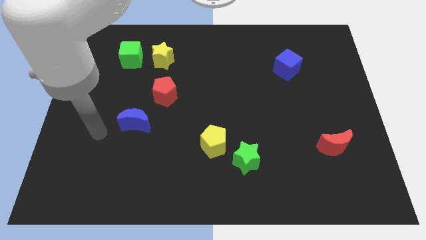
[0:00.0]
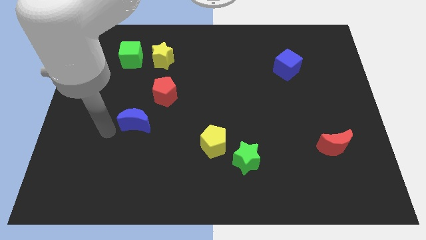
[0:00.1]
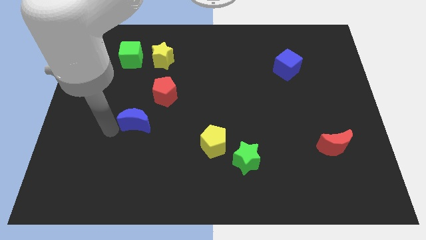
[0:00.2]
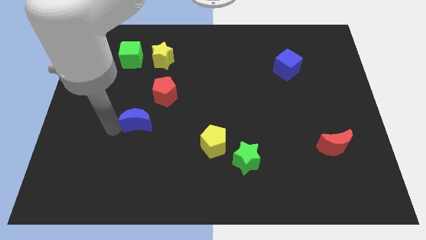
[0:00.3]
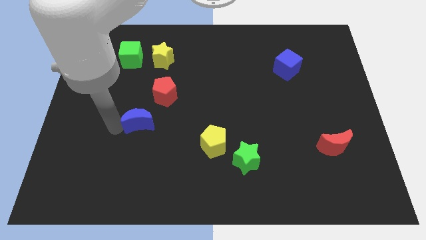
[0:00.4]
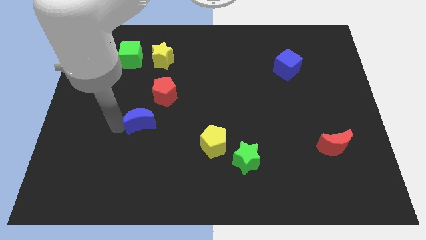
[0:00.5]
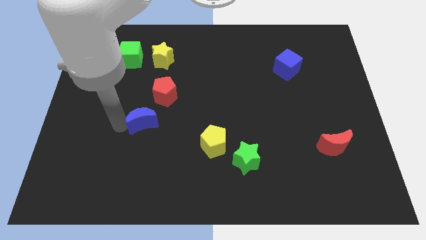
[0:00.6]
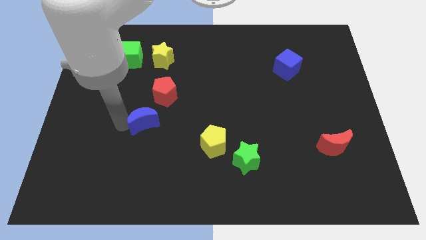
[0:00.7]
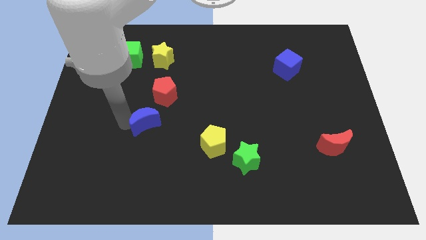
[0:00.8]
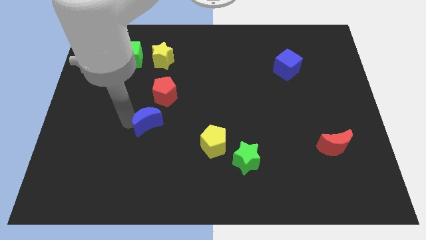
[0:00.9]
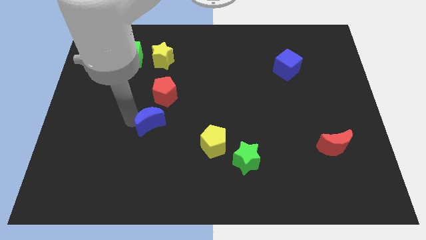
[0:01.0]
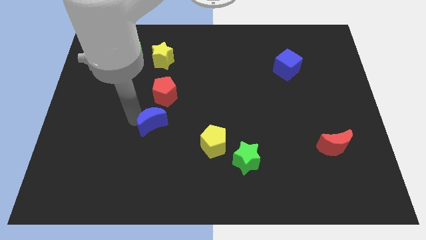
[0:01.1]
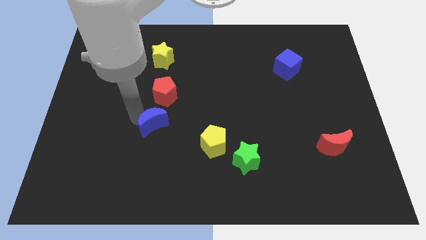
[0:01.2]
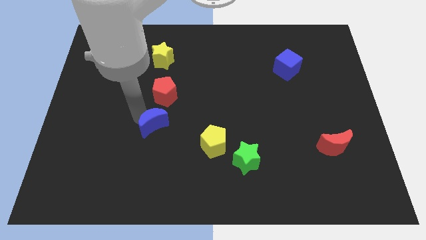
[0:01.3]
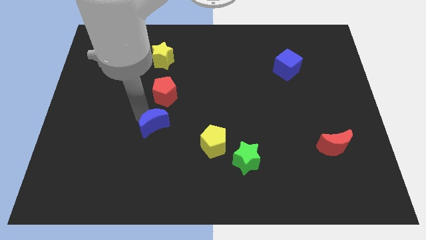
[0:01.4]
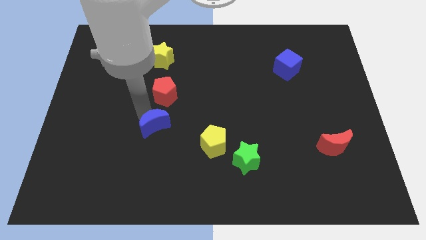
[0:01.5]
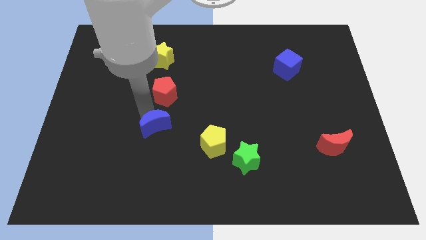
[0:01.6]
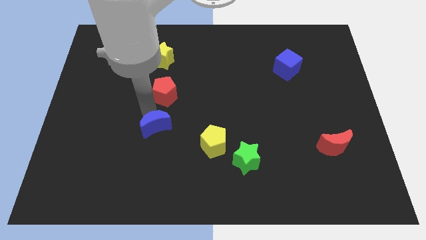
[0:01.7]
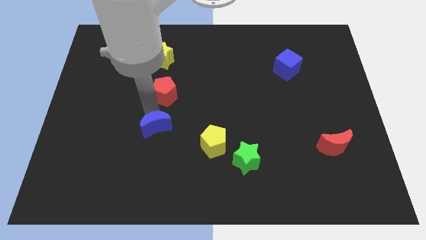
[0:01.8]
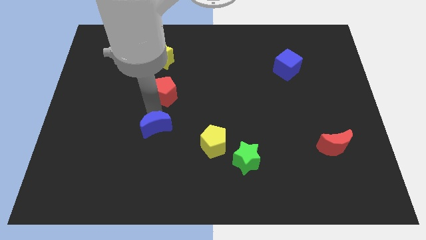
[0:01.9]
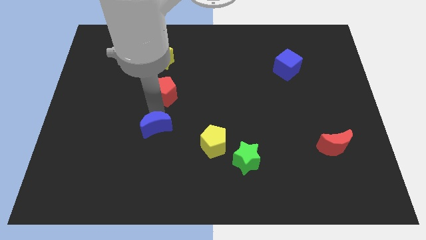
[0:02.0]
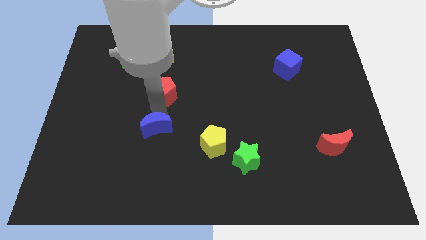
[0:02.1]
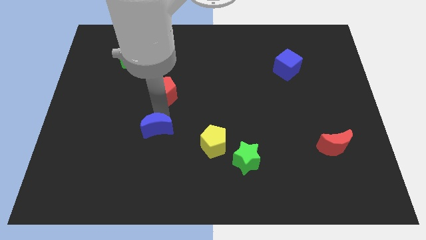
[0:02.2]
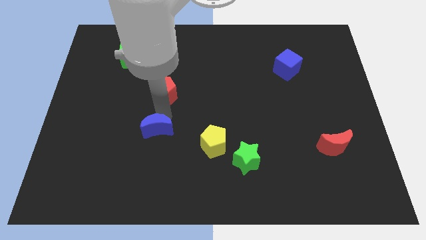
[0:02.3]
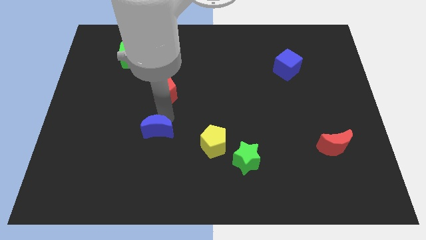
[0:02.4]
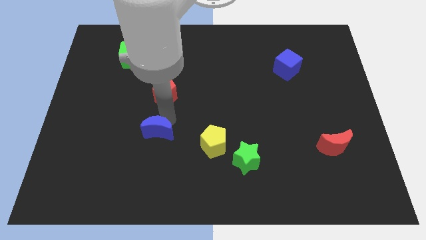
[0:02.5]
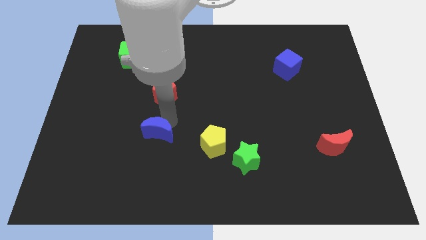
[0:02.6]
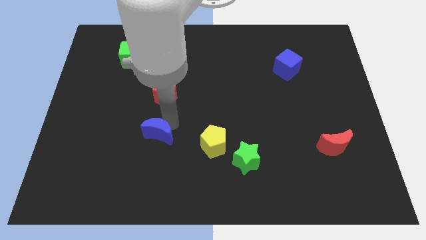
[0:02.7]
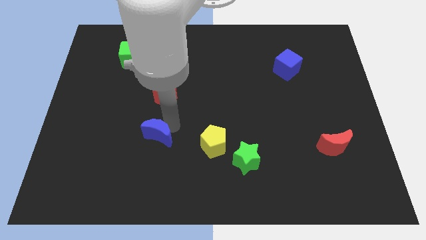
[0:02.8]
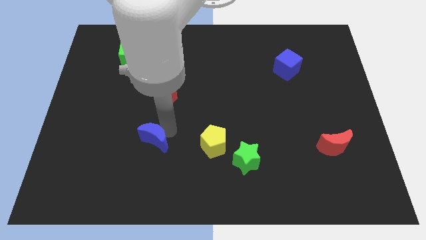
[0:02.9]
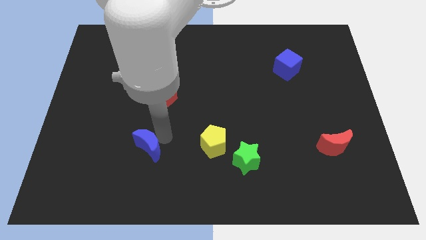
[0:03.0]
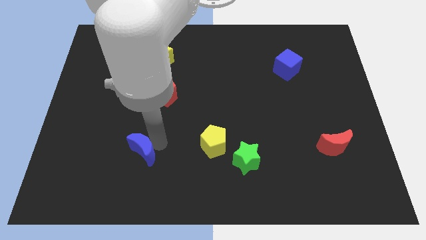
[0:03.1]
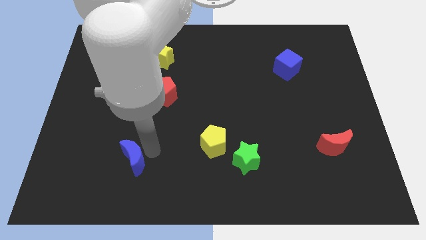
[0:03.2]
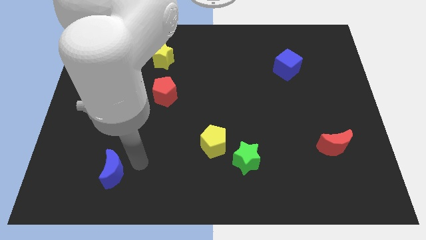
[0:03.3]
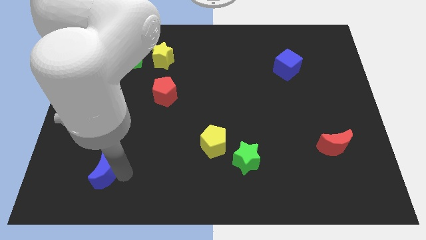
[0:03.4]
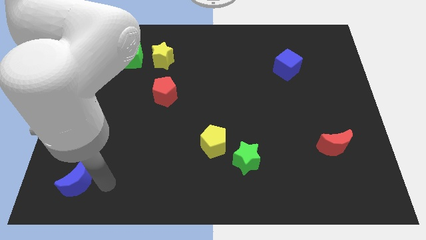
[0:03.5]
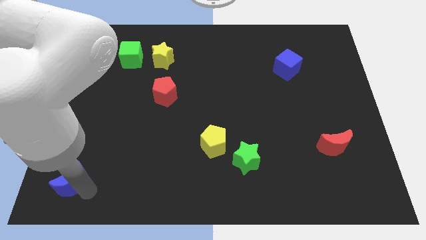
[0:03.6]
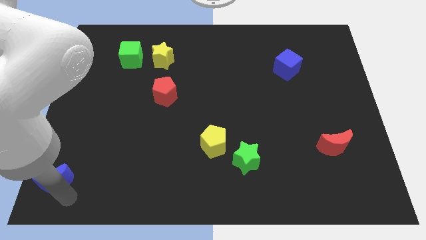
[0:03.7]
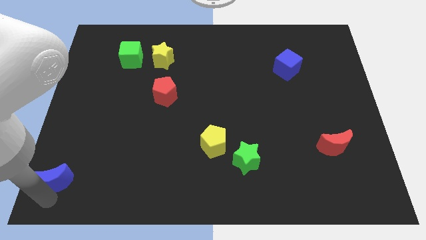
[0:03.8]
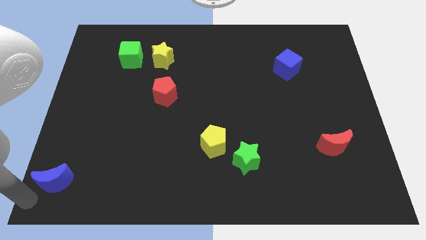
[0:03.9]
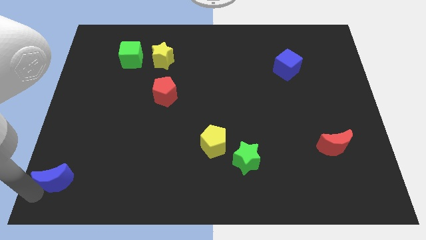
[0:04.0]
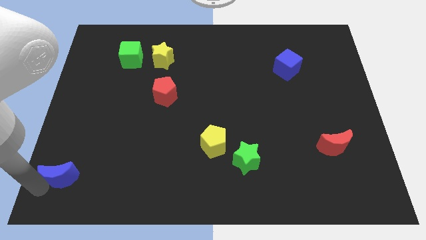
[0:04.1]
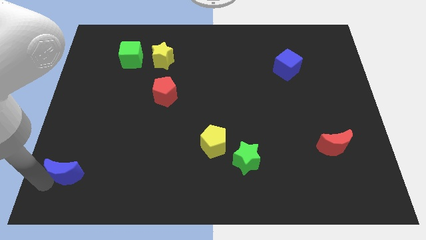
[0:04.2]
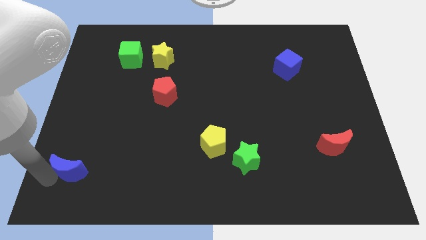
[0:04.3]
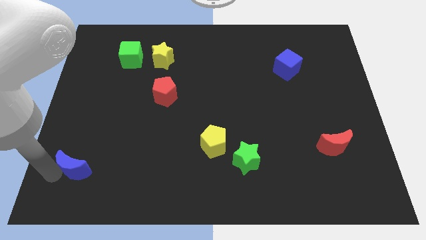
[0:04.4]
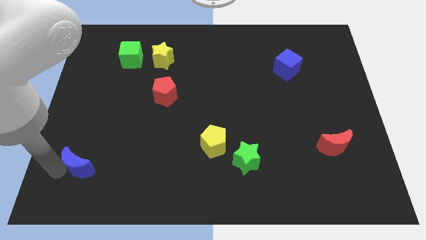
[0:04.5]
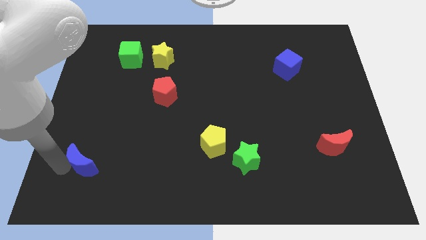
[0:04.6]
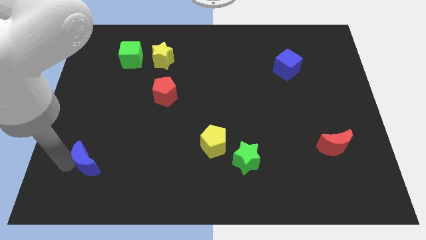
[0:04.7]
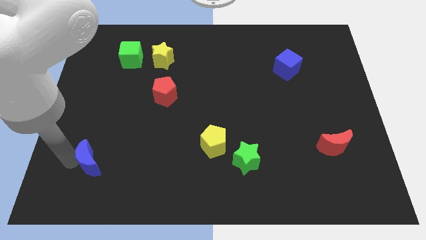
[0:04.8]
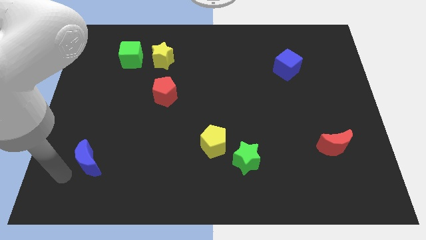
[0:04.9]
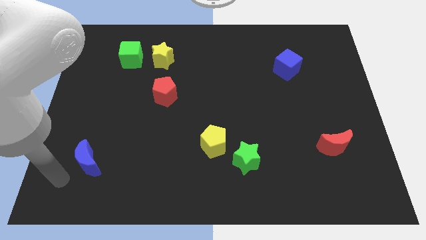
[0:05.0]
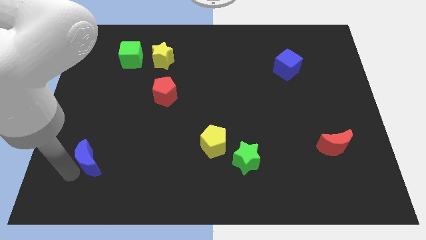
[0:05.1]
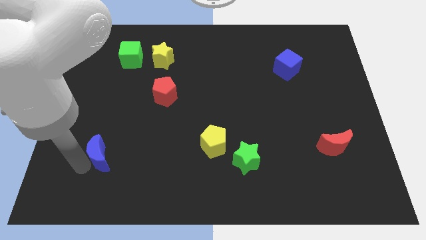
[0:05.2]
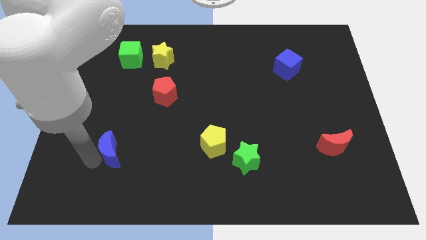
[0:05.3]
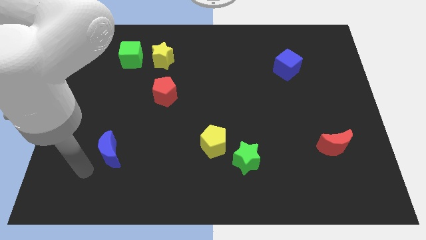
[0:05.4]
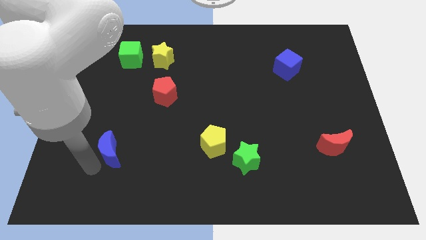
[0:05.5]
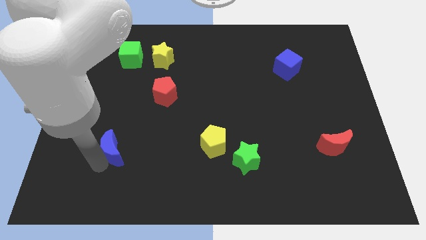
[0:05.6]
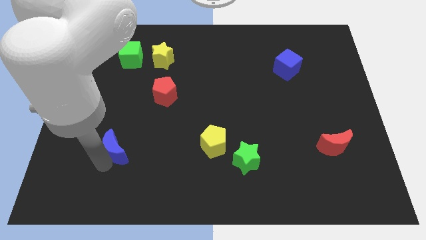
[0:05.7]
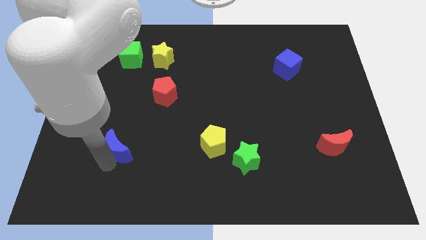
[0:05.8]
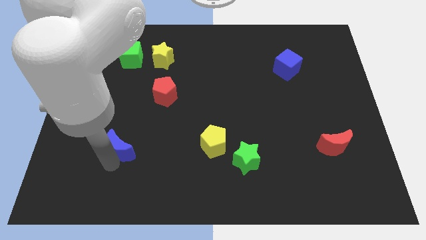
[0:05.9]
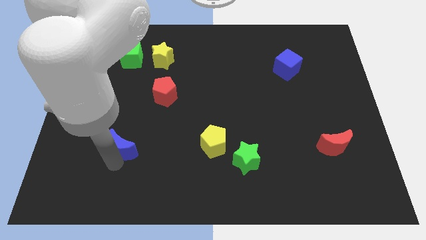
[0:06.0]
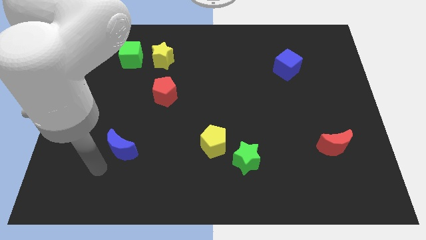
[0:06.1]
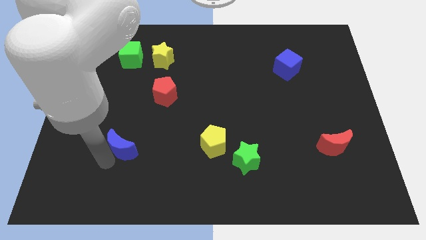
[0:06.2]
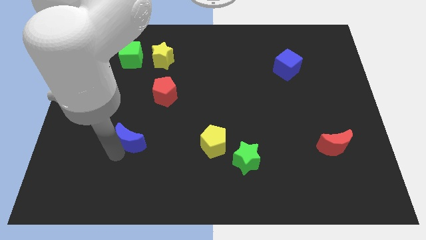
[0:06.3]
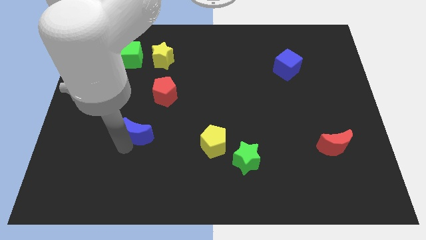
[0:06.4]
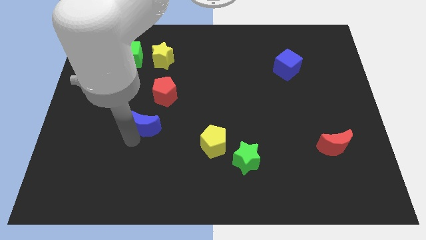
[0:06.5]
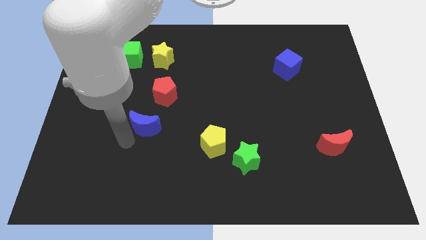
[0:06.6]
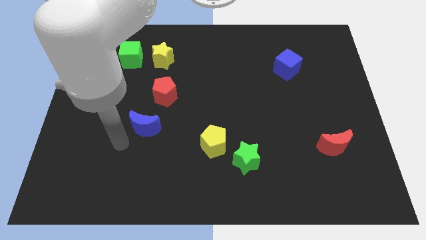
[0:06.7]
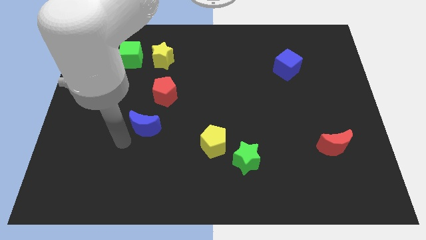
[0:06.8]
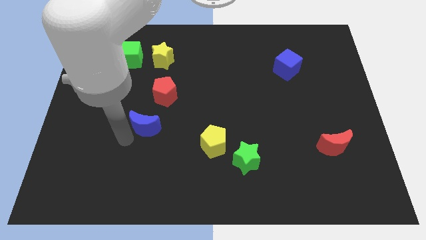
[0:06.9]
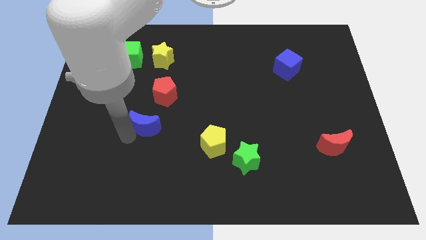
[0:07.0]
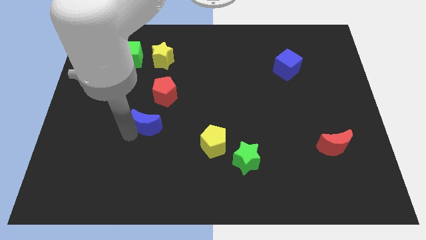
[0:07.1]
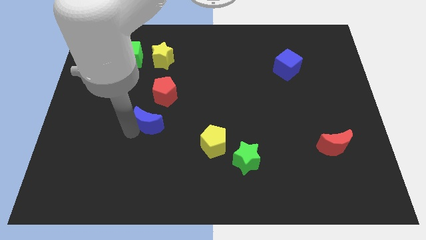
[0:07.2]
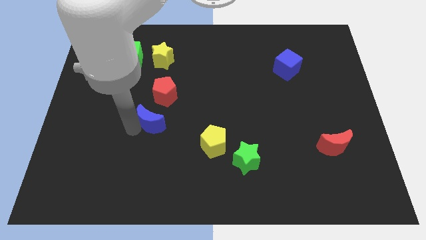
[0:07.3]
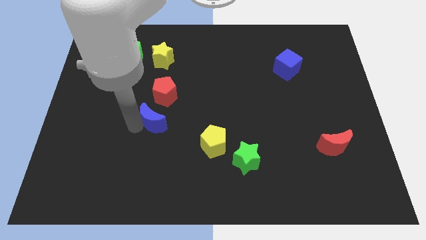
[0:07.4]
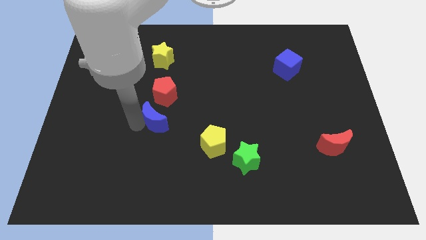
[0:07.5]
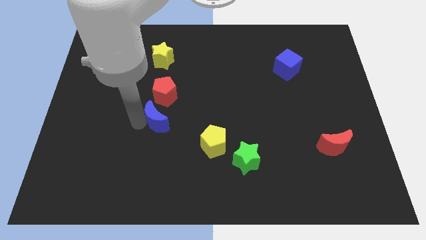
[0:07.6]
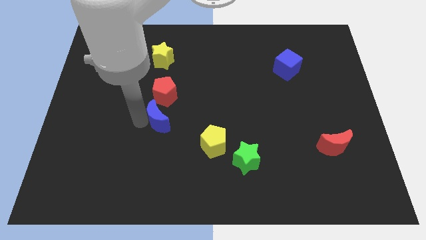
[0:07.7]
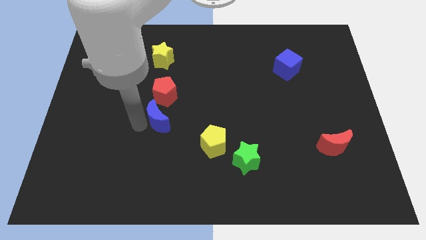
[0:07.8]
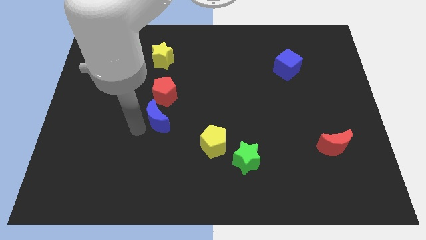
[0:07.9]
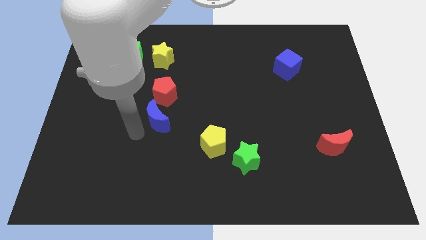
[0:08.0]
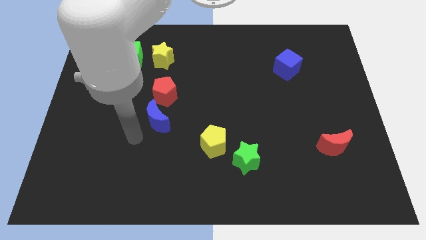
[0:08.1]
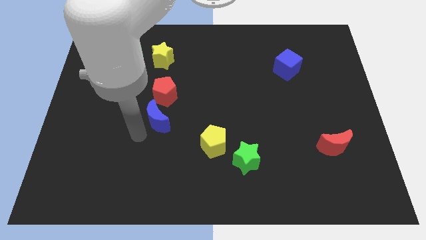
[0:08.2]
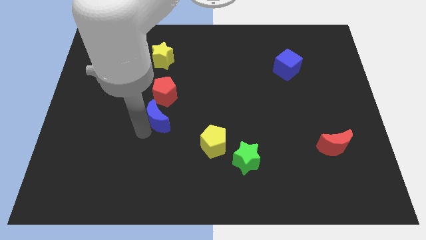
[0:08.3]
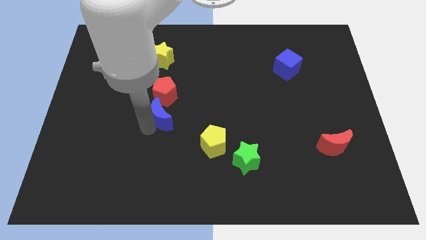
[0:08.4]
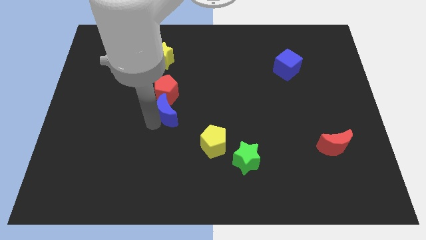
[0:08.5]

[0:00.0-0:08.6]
push the blue moon to the center
